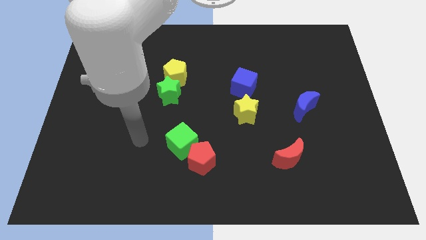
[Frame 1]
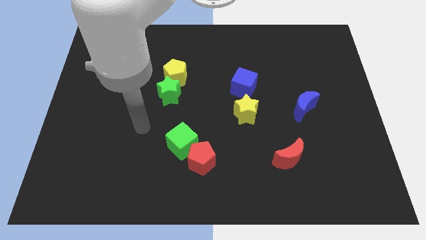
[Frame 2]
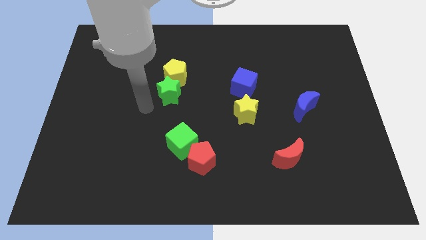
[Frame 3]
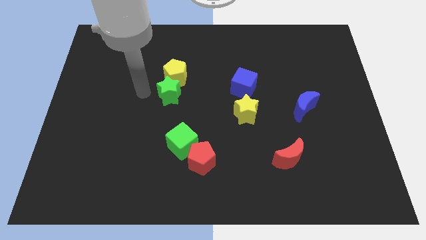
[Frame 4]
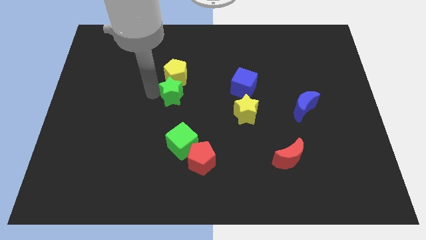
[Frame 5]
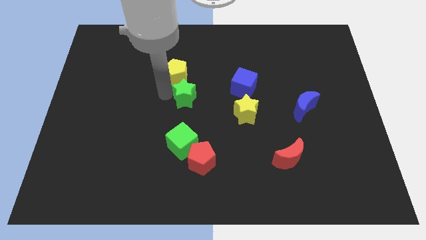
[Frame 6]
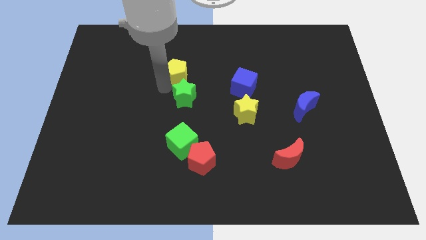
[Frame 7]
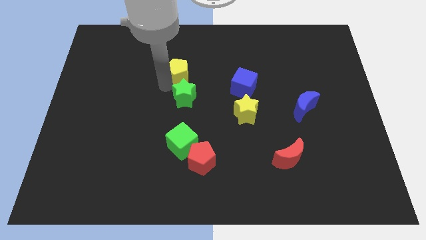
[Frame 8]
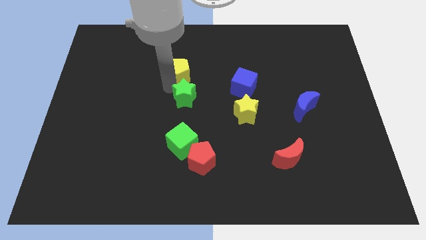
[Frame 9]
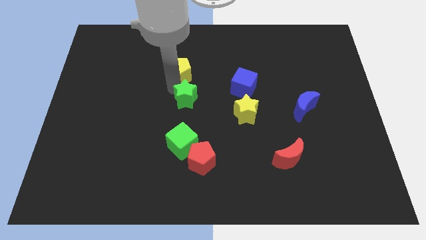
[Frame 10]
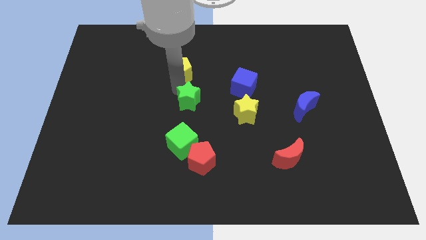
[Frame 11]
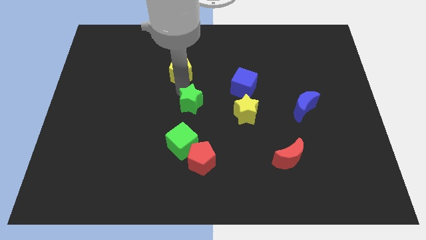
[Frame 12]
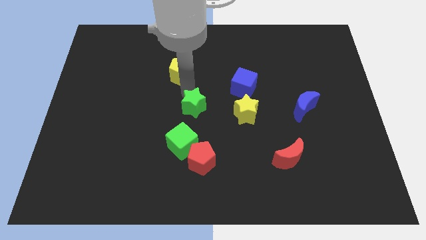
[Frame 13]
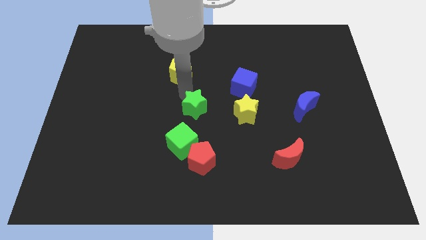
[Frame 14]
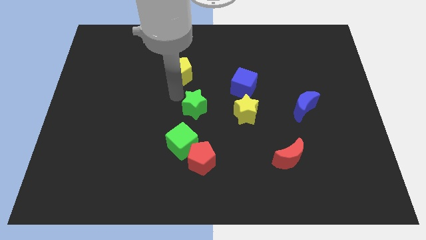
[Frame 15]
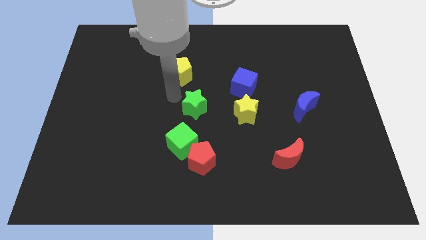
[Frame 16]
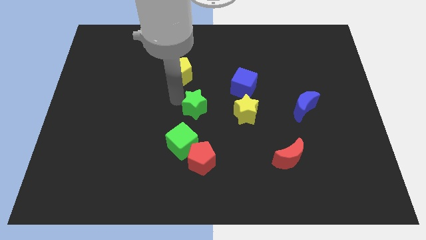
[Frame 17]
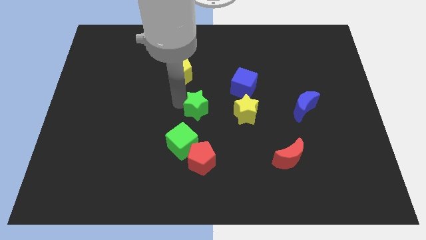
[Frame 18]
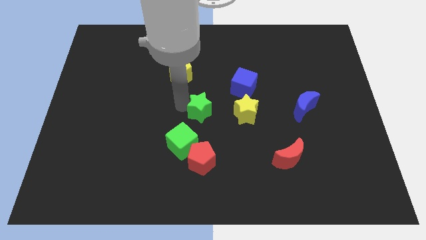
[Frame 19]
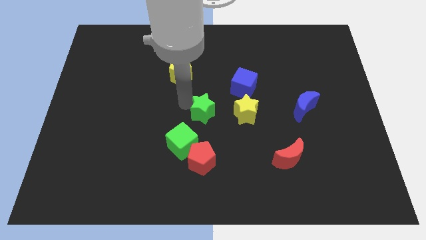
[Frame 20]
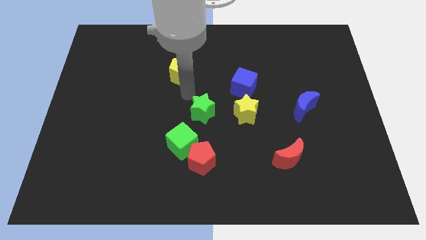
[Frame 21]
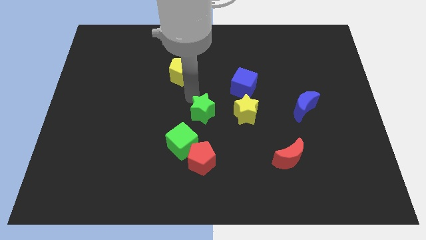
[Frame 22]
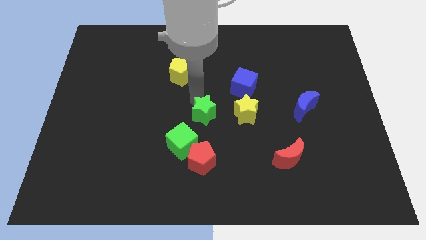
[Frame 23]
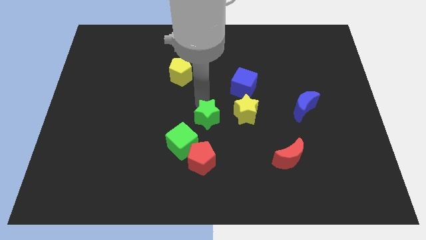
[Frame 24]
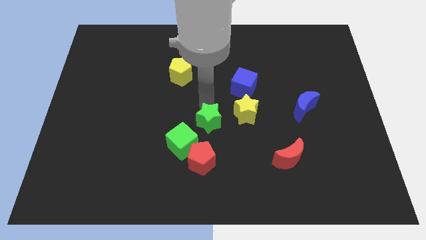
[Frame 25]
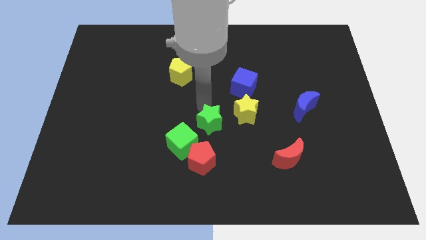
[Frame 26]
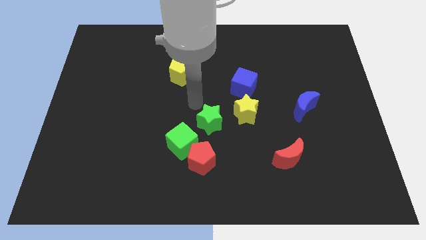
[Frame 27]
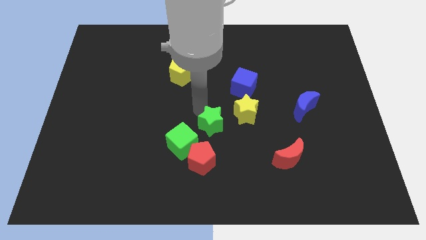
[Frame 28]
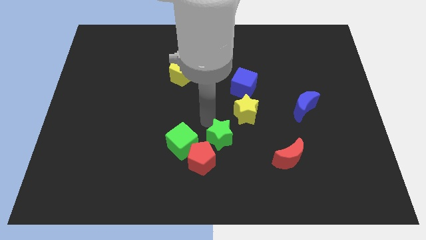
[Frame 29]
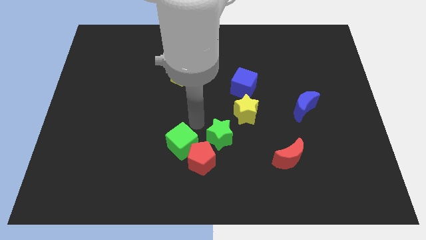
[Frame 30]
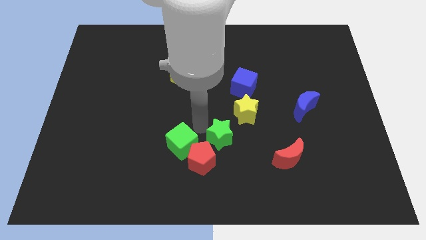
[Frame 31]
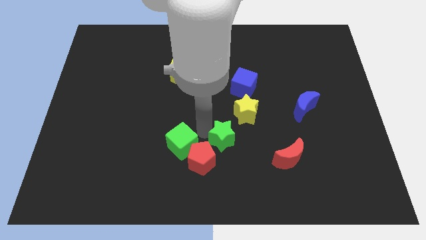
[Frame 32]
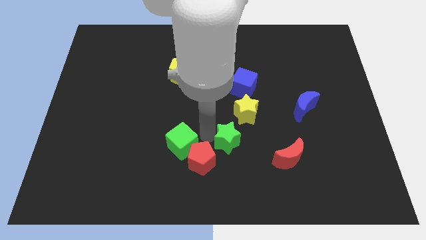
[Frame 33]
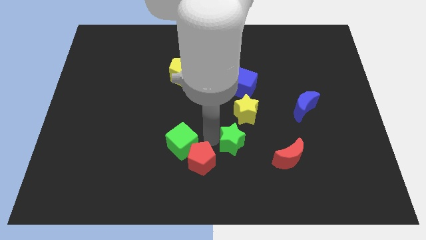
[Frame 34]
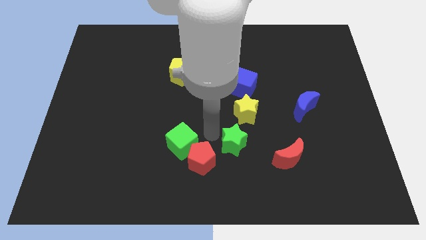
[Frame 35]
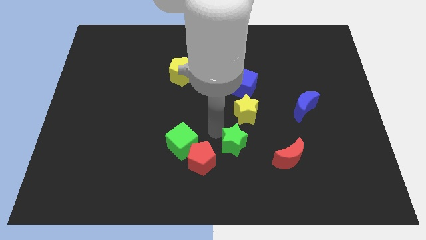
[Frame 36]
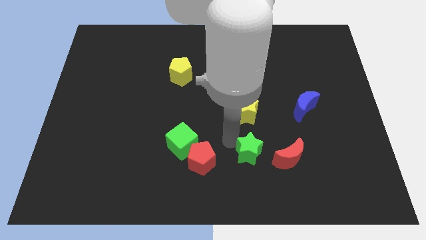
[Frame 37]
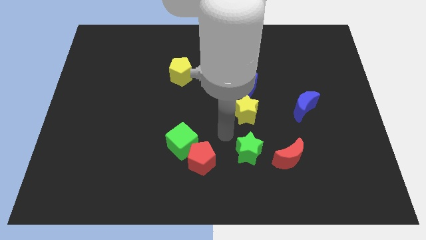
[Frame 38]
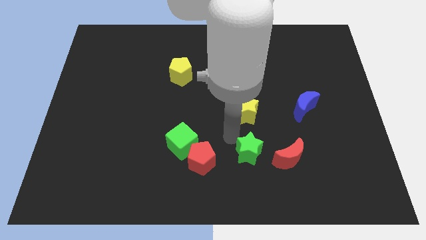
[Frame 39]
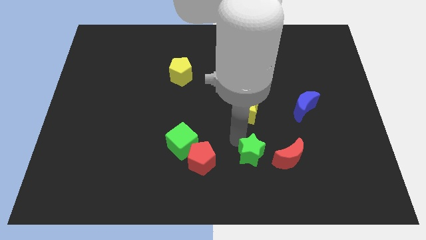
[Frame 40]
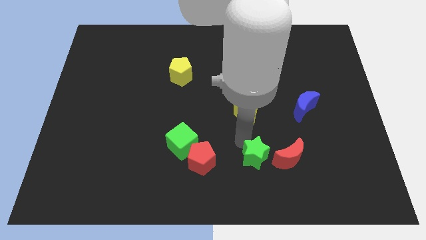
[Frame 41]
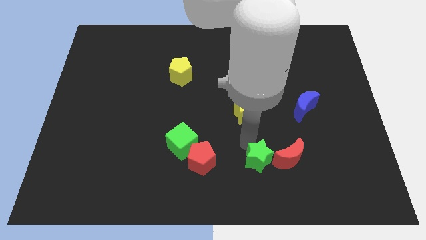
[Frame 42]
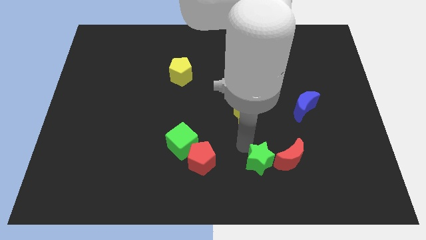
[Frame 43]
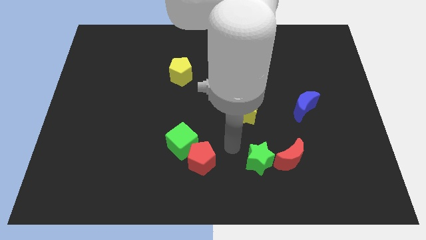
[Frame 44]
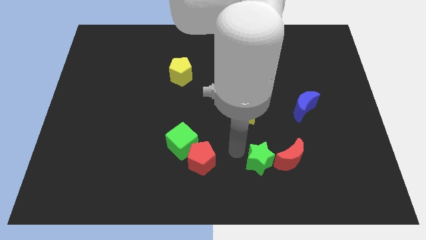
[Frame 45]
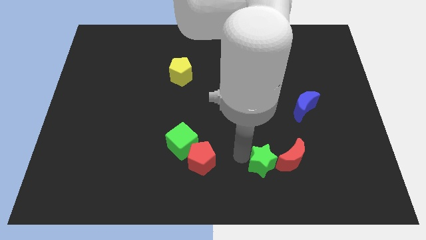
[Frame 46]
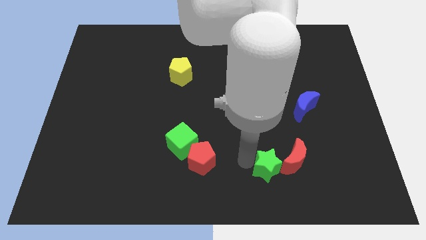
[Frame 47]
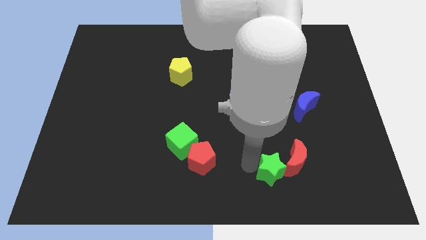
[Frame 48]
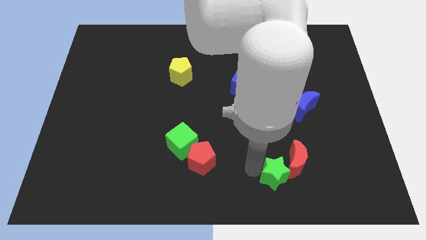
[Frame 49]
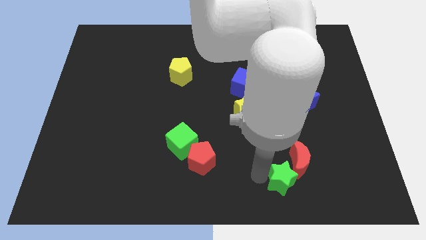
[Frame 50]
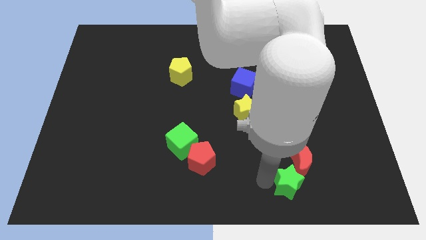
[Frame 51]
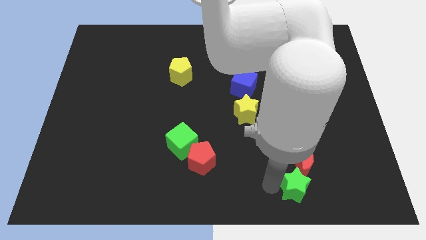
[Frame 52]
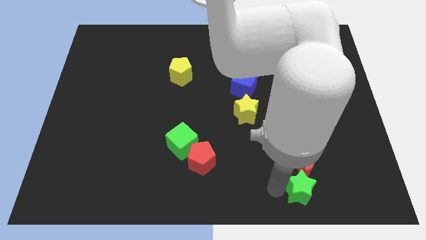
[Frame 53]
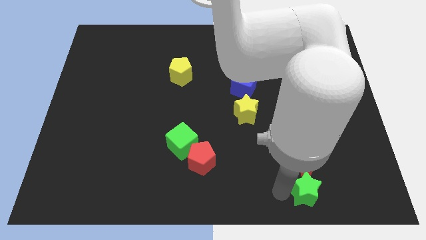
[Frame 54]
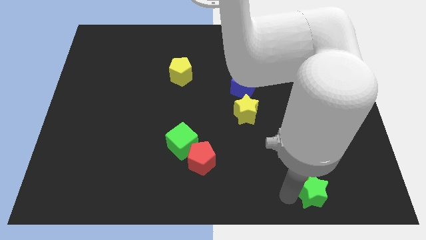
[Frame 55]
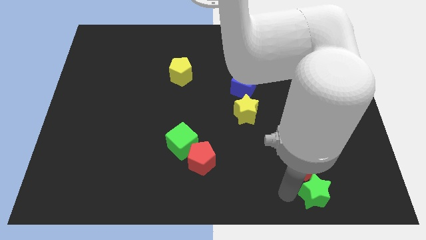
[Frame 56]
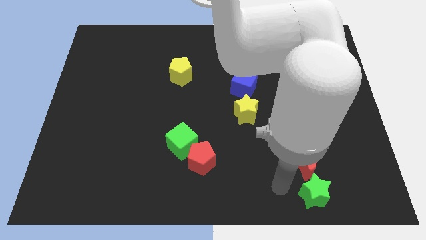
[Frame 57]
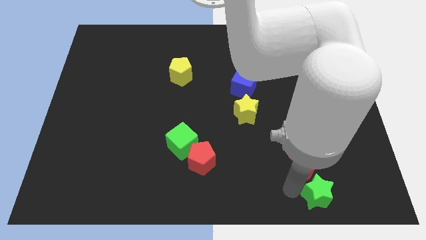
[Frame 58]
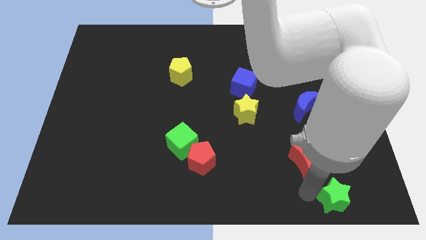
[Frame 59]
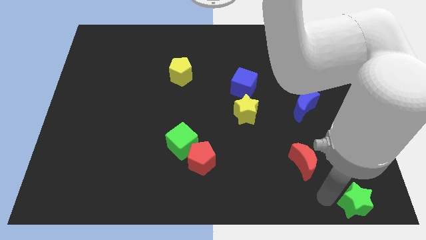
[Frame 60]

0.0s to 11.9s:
push the green star to the bottom right
